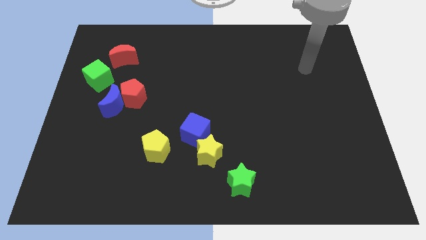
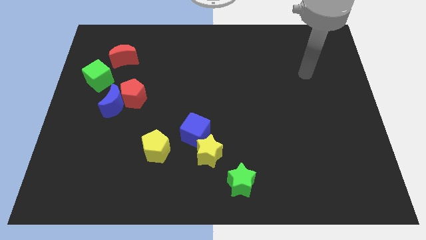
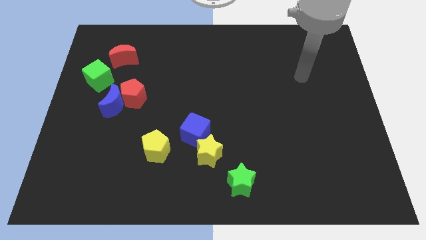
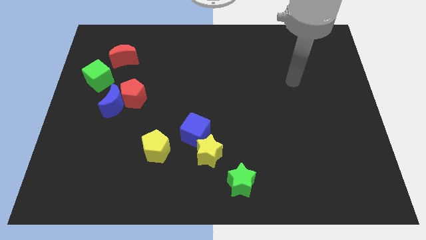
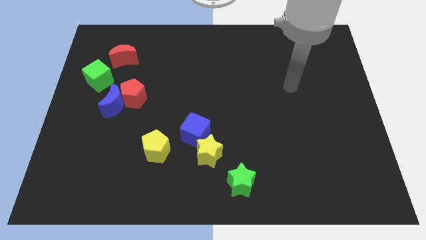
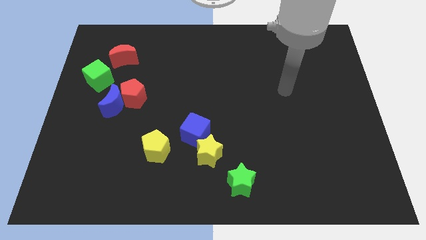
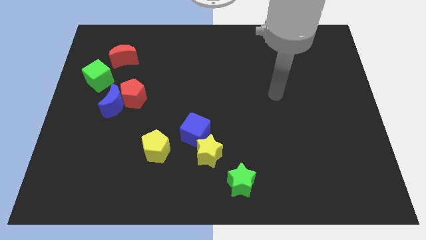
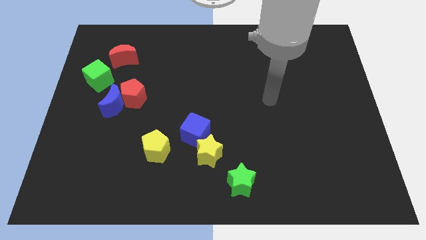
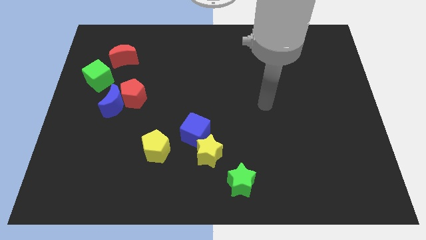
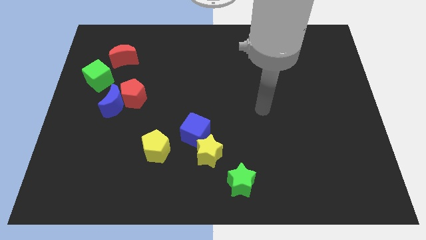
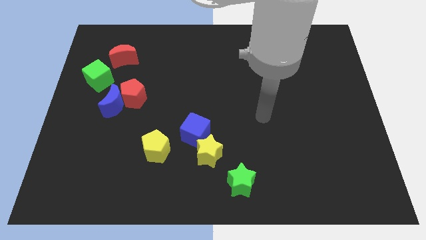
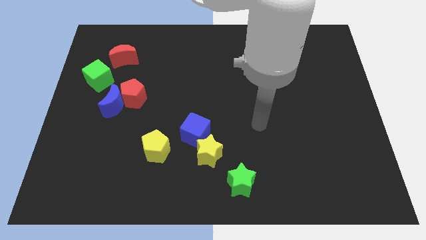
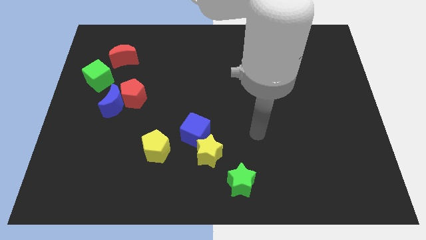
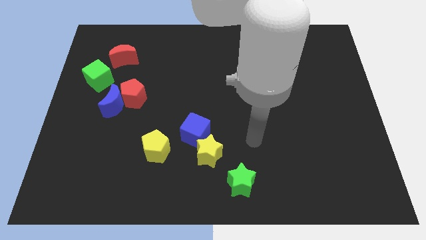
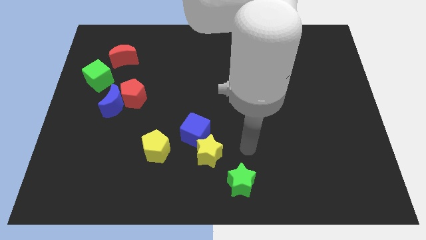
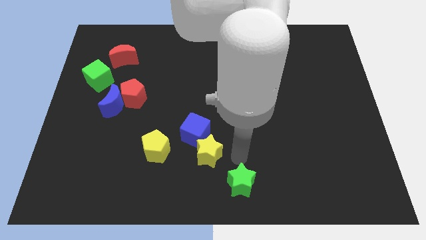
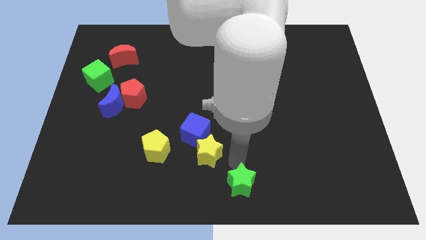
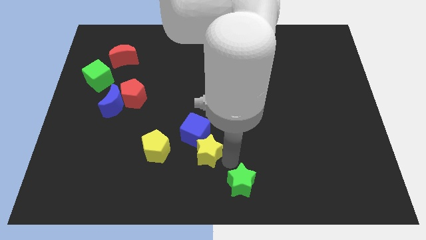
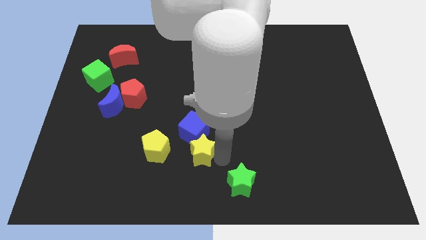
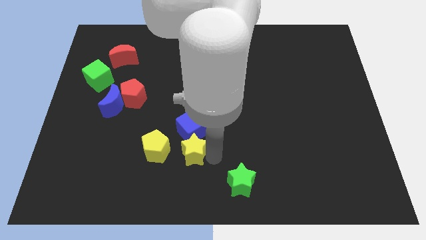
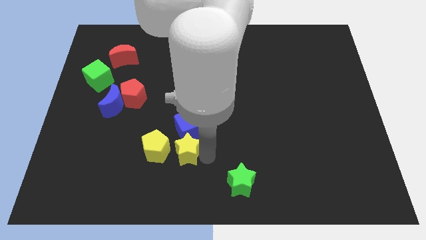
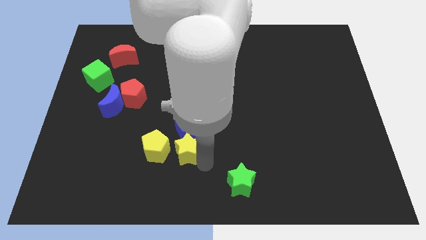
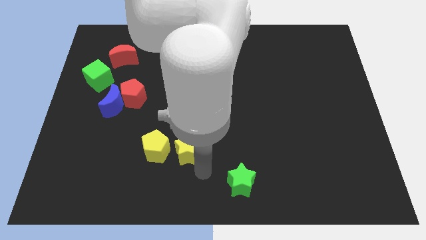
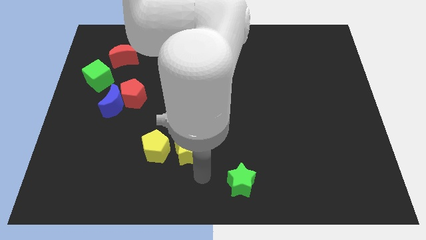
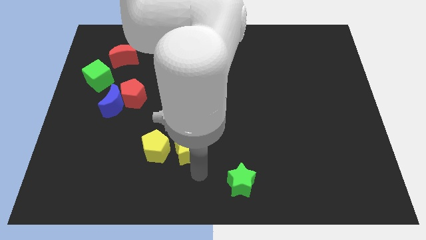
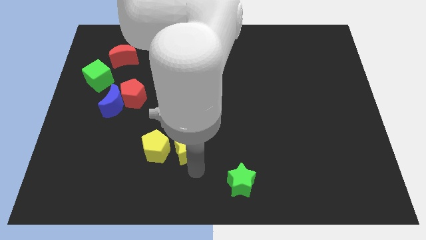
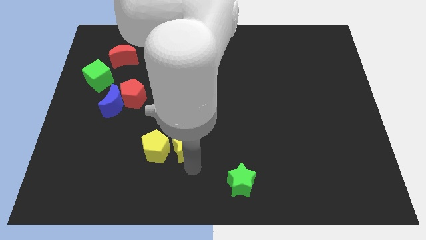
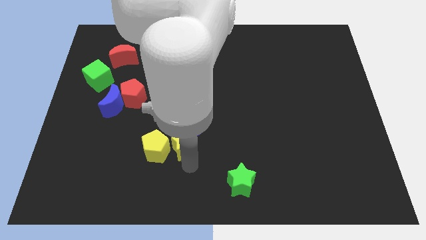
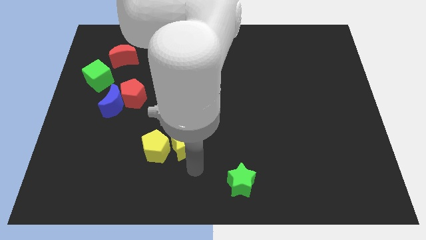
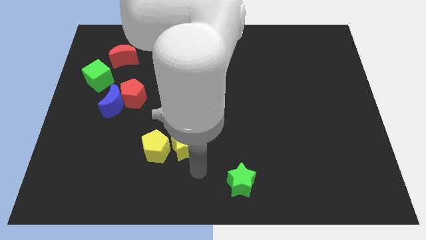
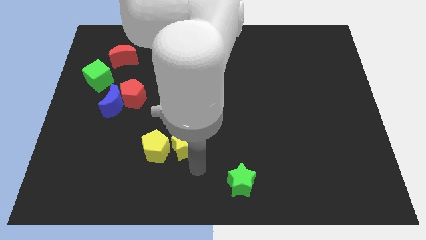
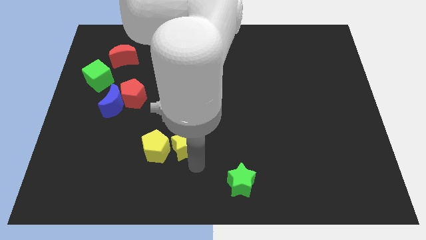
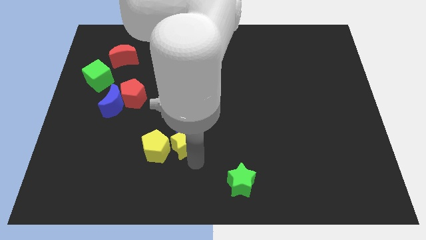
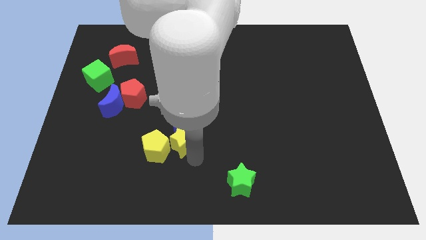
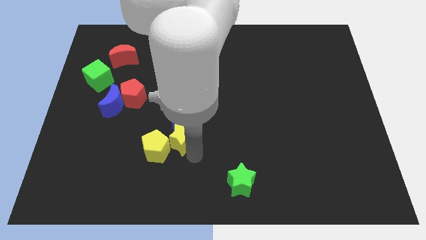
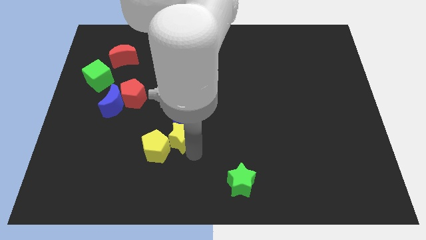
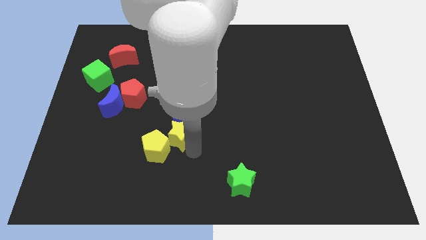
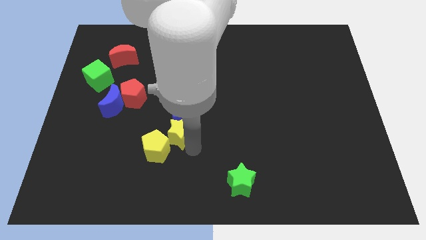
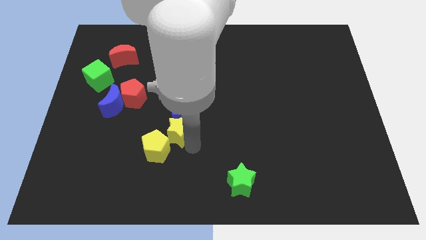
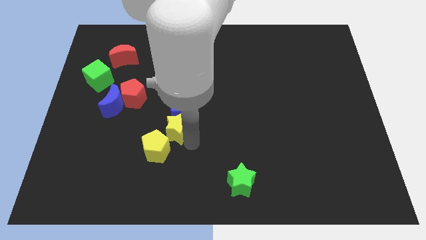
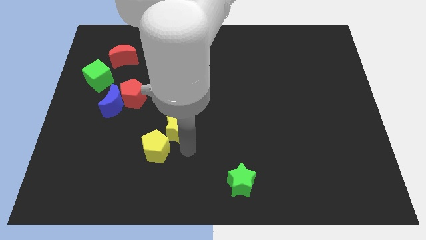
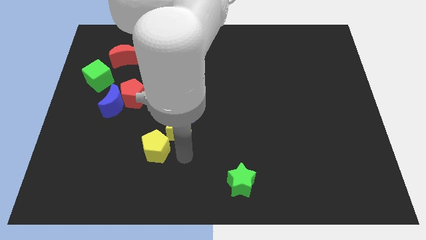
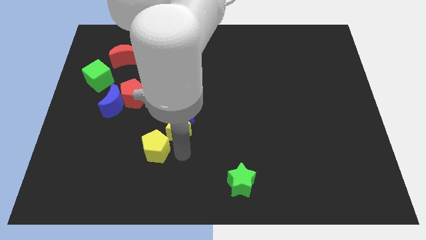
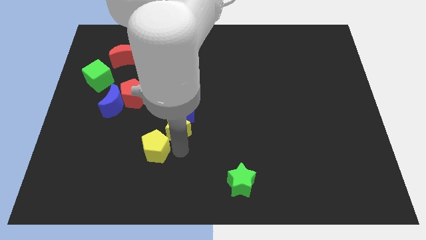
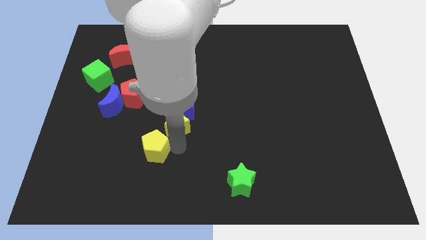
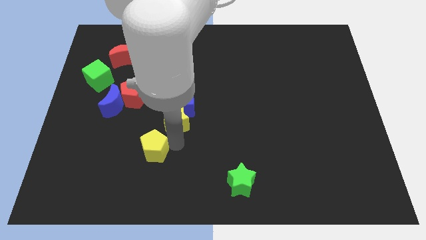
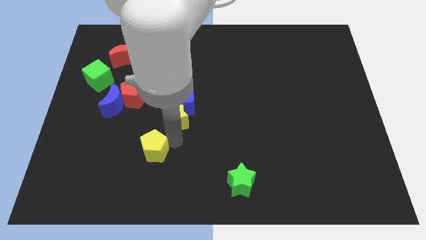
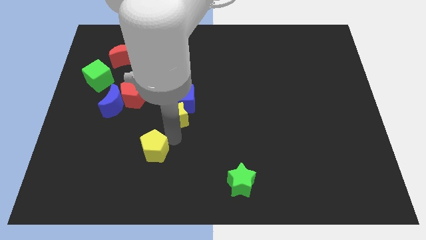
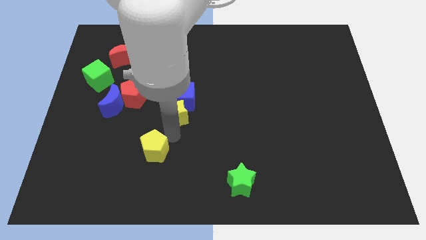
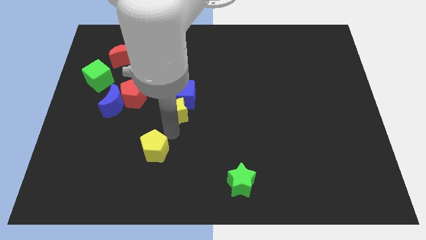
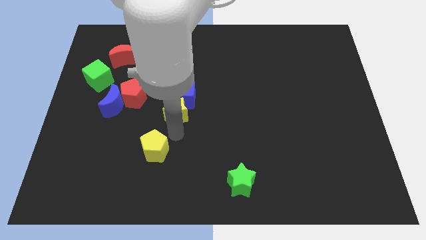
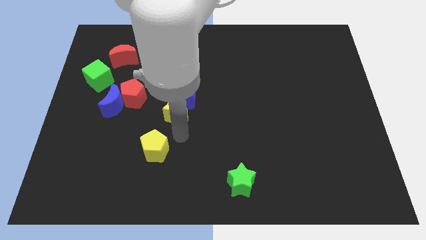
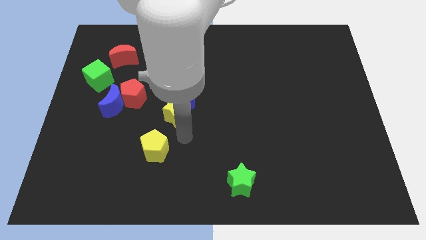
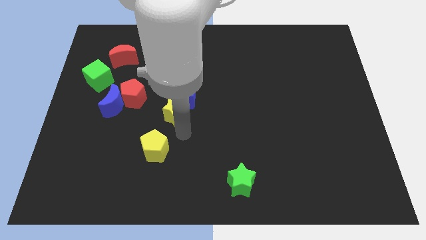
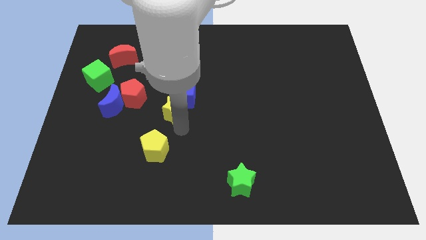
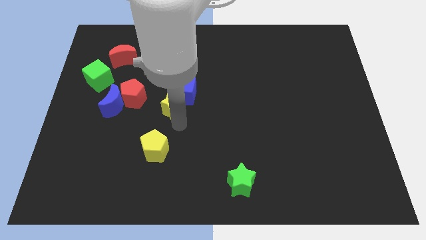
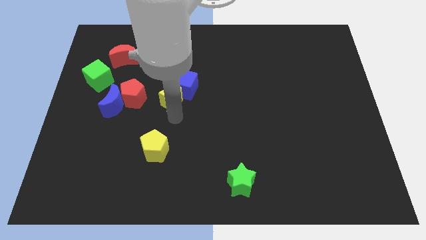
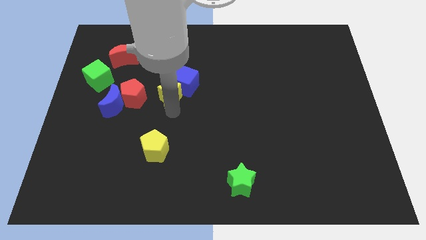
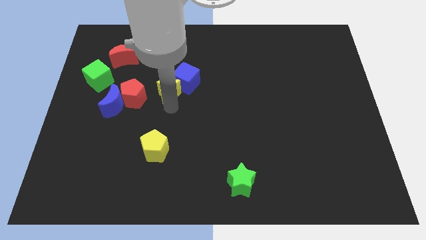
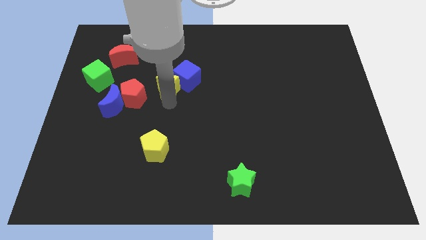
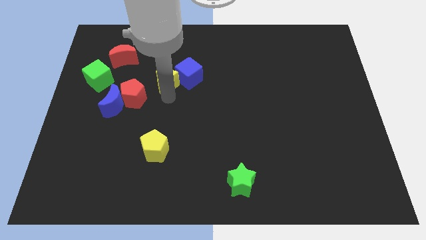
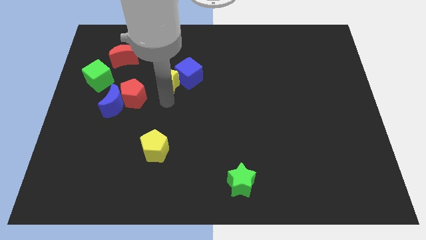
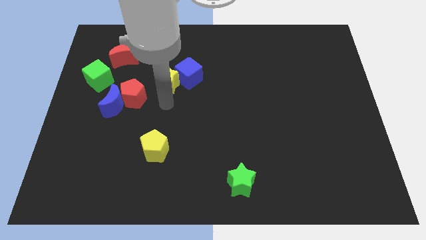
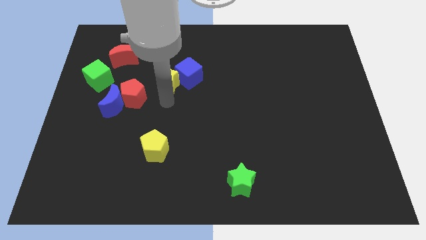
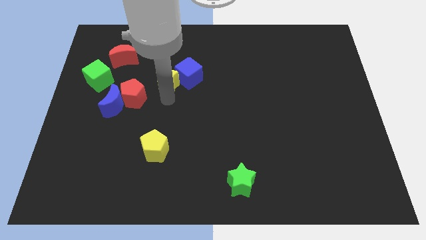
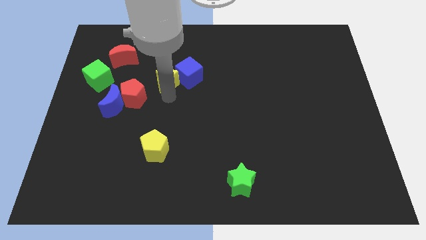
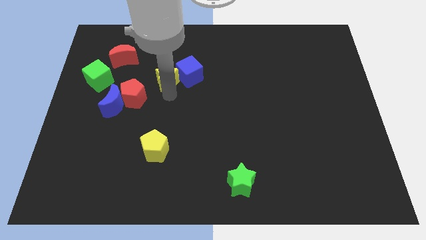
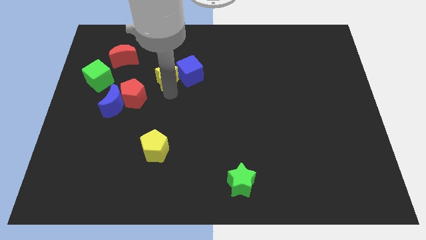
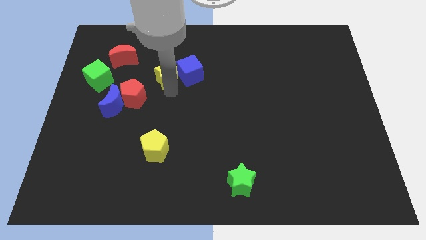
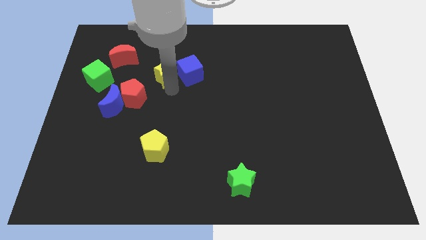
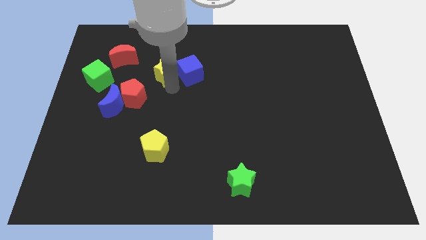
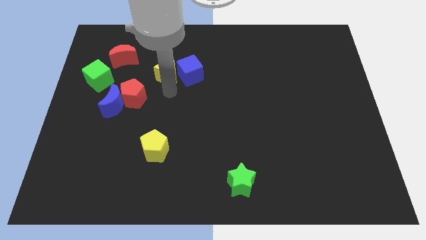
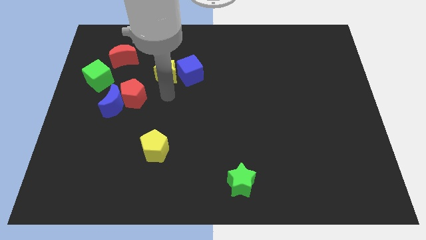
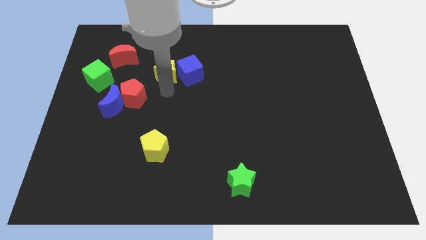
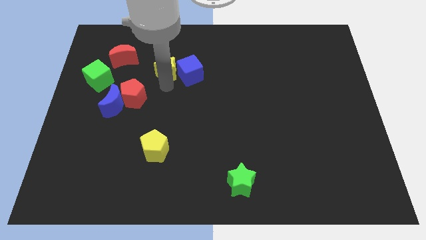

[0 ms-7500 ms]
move the yellow star right of the red moon
